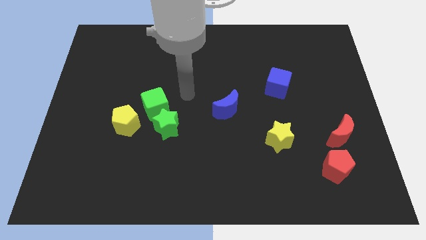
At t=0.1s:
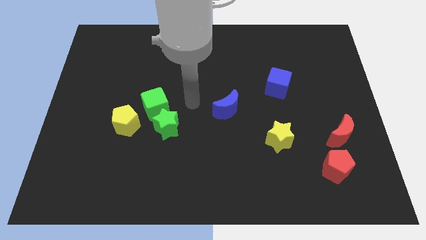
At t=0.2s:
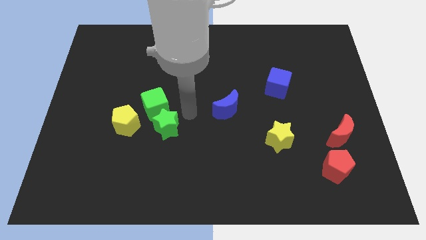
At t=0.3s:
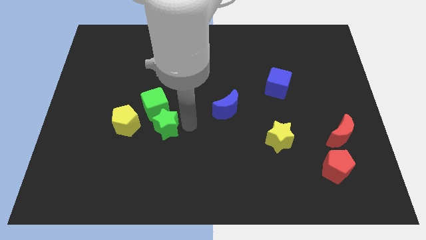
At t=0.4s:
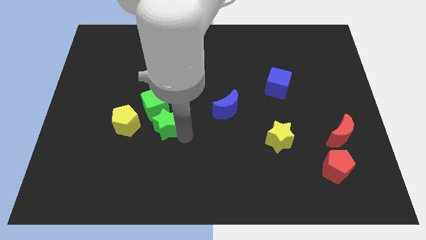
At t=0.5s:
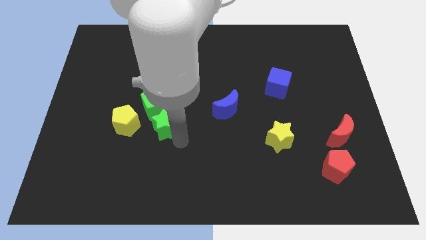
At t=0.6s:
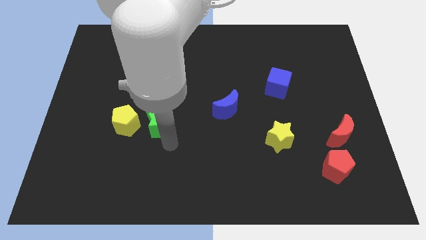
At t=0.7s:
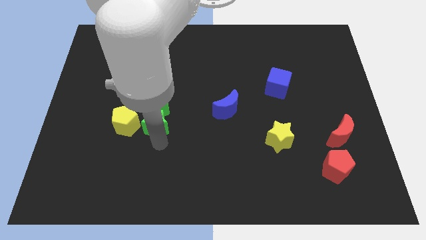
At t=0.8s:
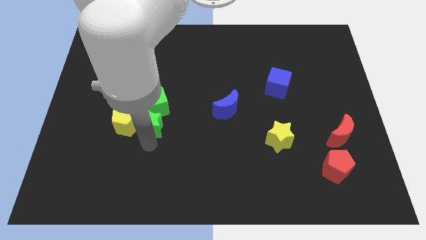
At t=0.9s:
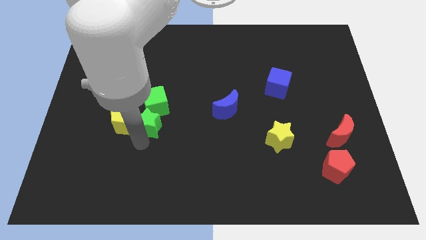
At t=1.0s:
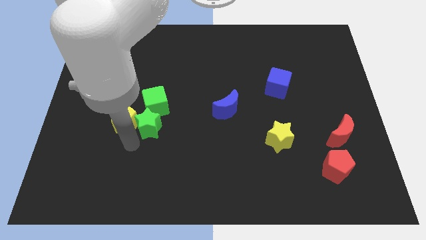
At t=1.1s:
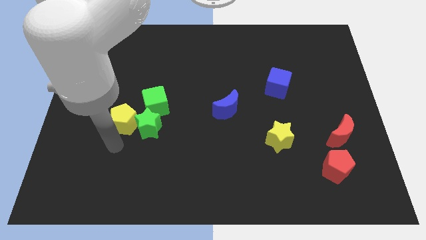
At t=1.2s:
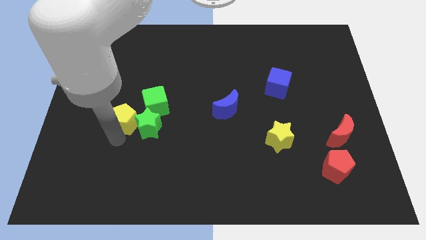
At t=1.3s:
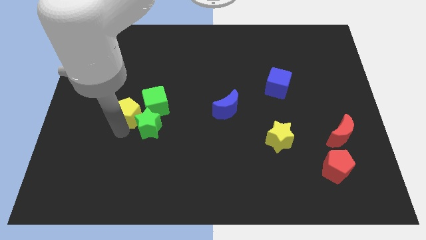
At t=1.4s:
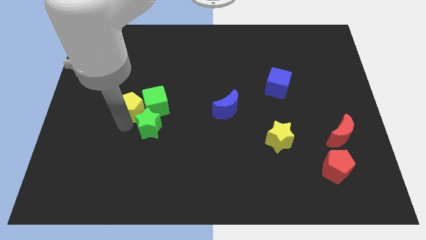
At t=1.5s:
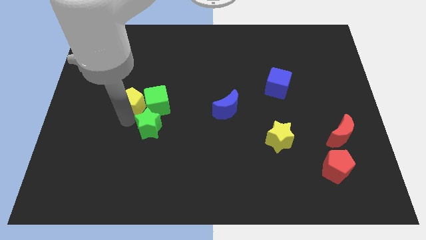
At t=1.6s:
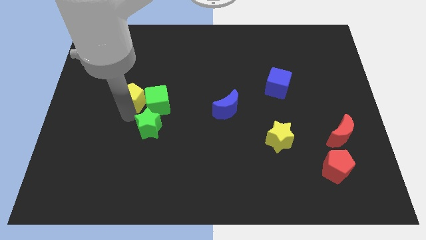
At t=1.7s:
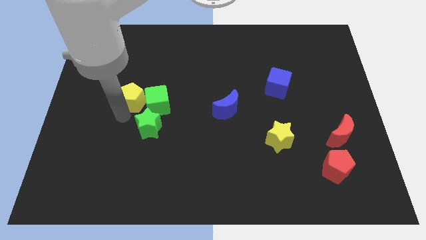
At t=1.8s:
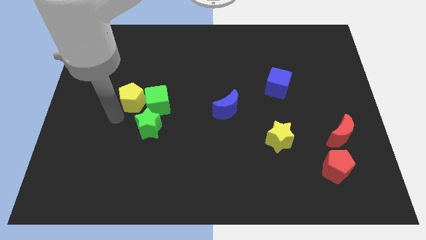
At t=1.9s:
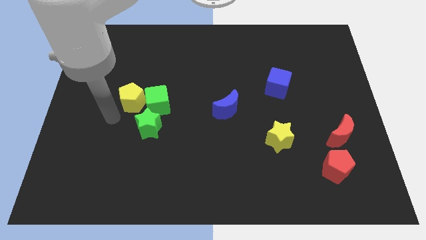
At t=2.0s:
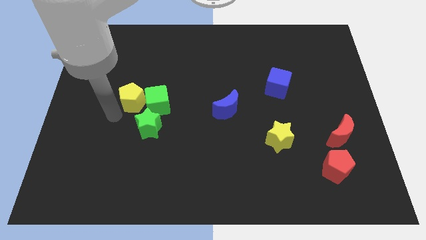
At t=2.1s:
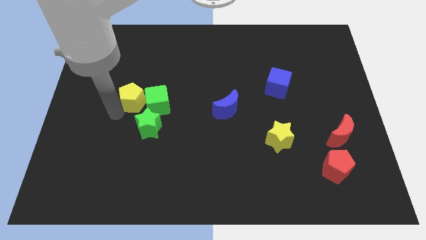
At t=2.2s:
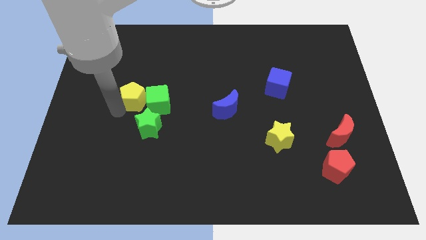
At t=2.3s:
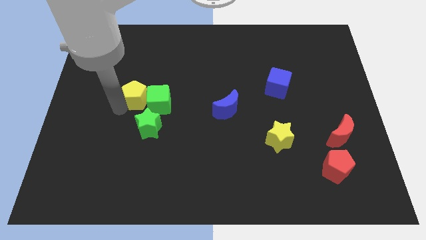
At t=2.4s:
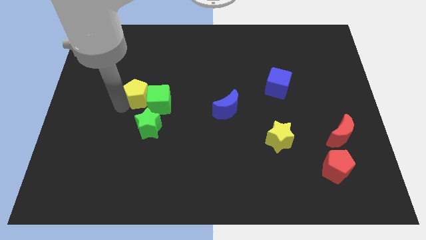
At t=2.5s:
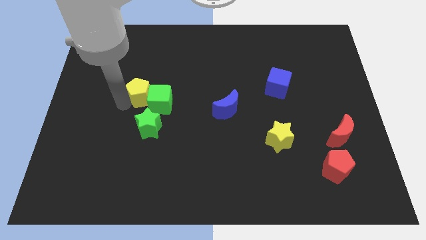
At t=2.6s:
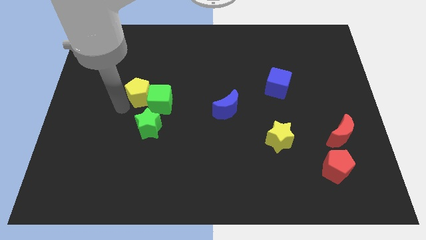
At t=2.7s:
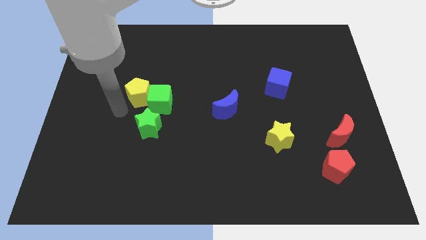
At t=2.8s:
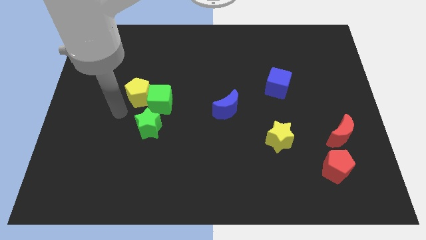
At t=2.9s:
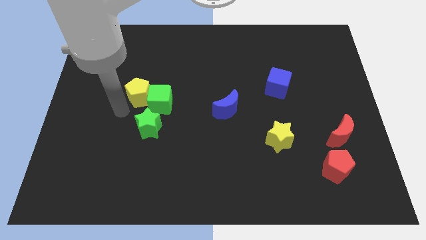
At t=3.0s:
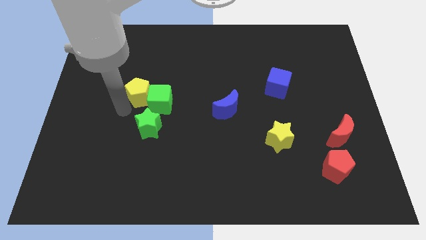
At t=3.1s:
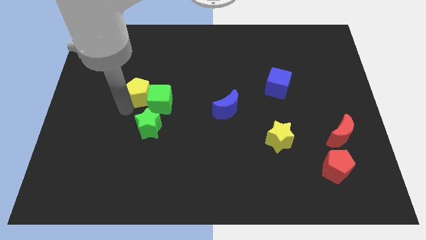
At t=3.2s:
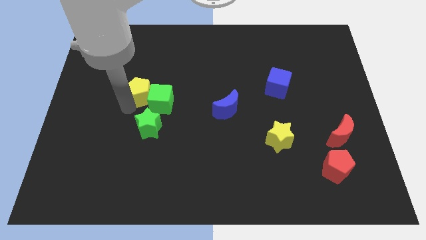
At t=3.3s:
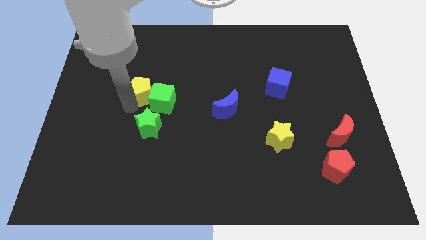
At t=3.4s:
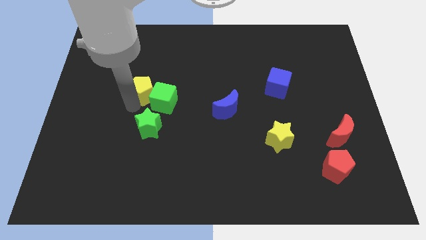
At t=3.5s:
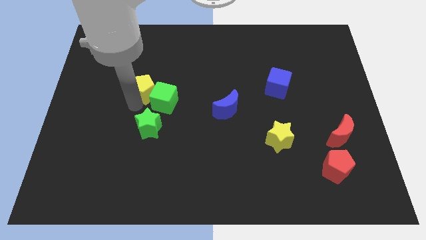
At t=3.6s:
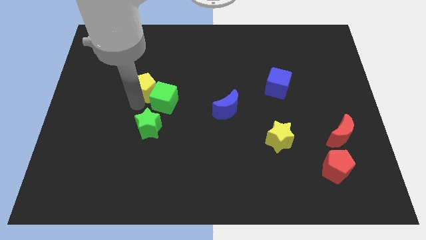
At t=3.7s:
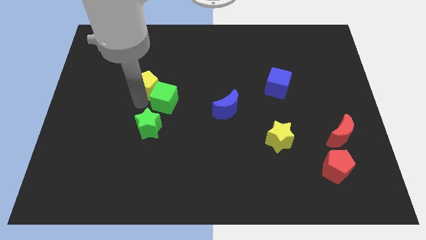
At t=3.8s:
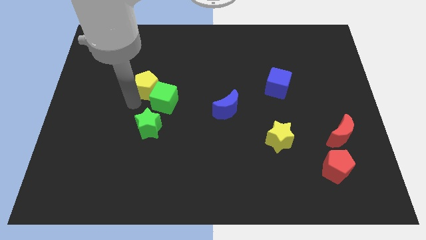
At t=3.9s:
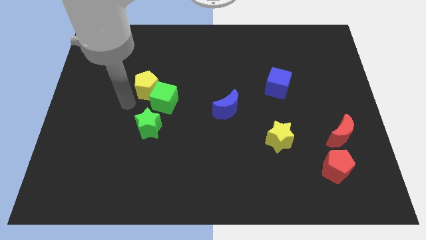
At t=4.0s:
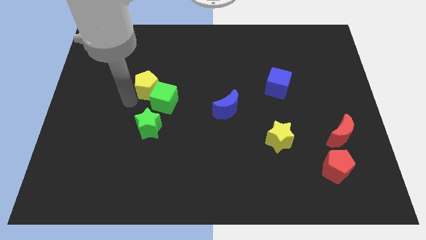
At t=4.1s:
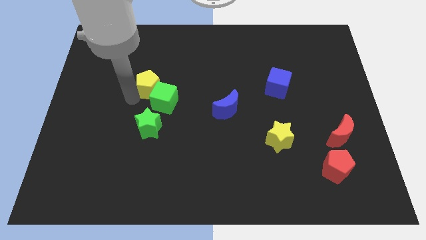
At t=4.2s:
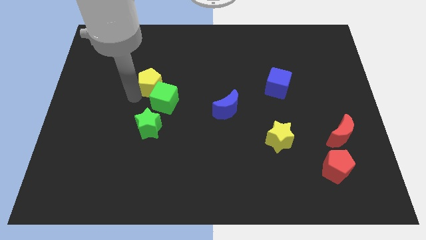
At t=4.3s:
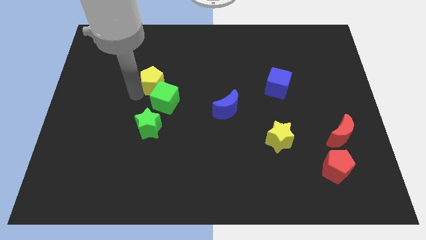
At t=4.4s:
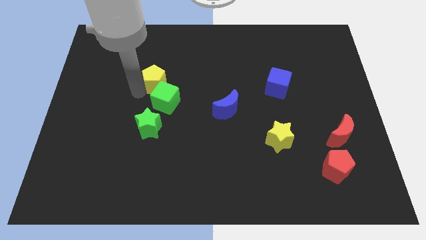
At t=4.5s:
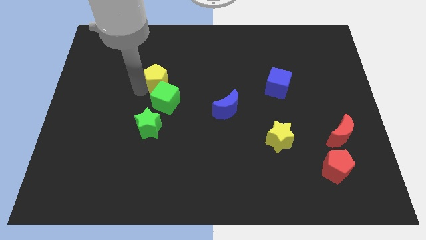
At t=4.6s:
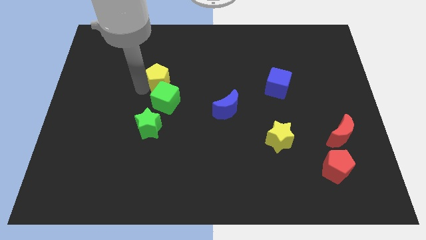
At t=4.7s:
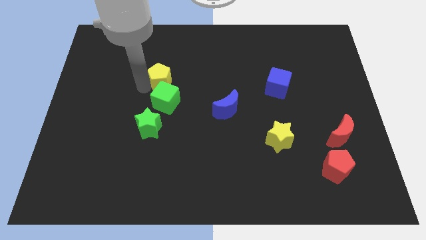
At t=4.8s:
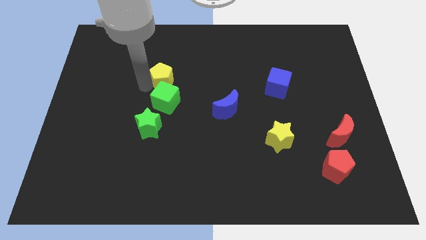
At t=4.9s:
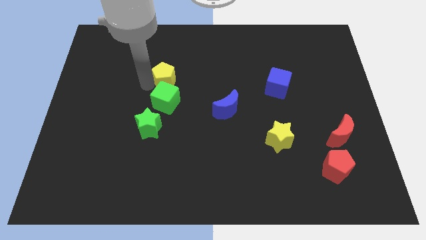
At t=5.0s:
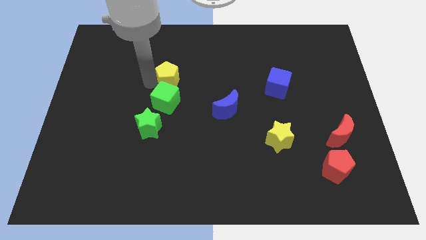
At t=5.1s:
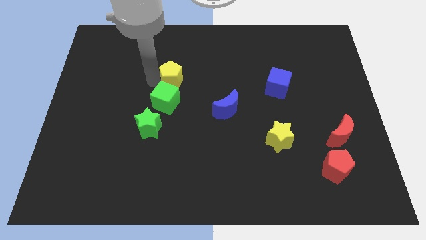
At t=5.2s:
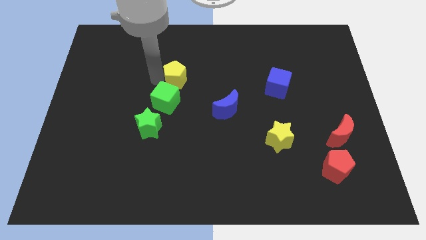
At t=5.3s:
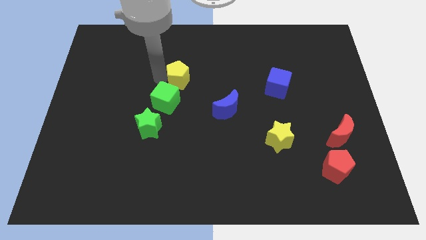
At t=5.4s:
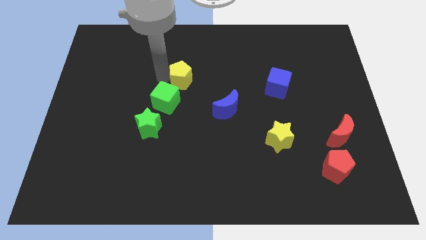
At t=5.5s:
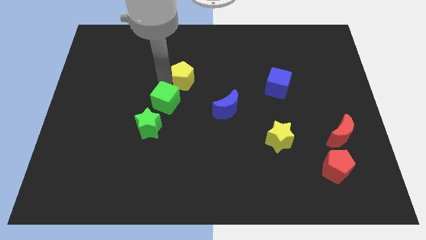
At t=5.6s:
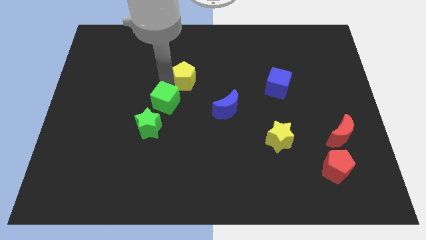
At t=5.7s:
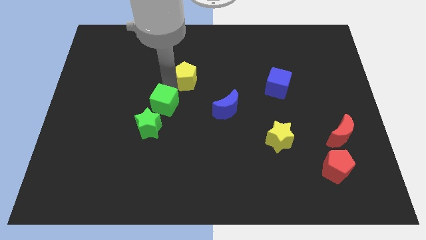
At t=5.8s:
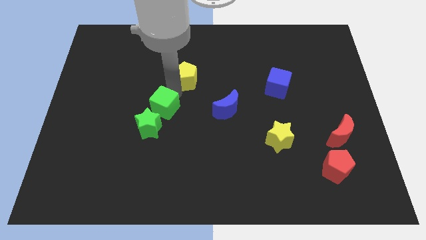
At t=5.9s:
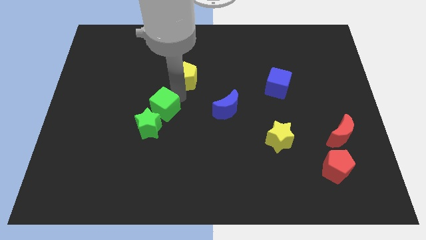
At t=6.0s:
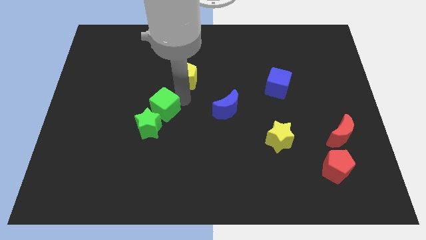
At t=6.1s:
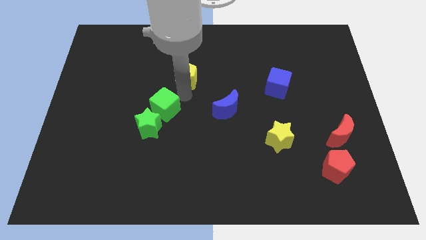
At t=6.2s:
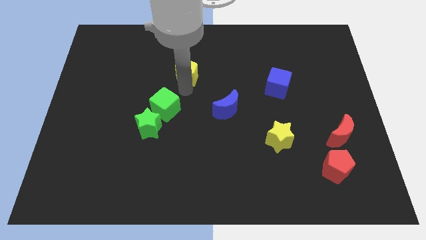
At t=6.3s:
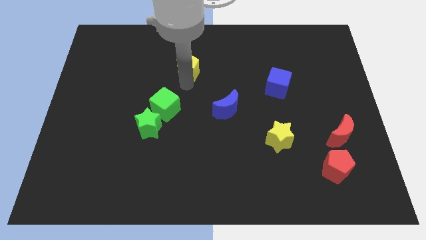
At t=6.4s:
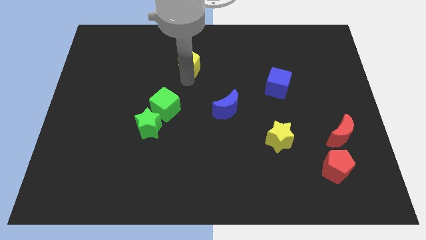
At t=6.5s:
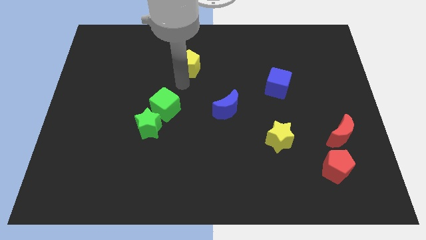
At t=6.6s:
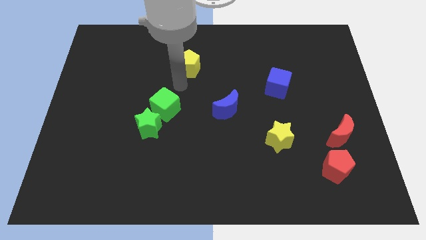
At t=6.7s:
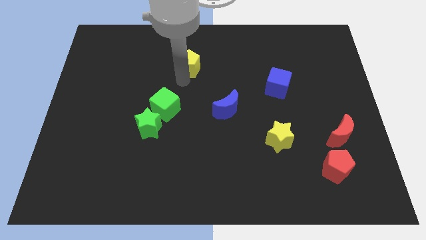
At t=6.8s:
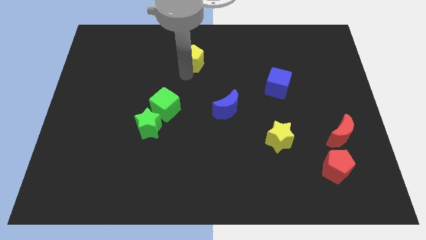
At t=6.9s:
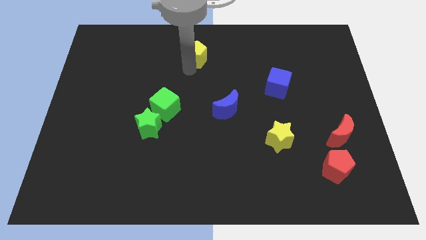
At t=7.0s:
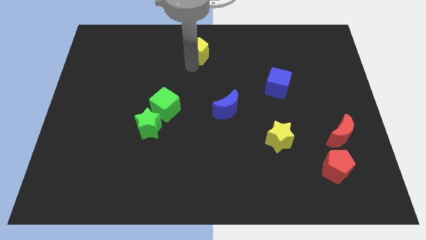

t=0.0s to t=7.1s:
slide the yellow pentagon to the top side
